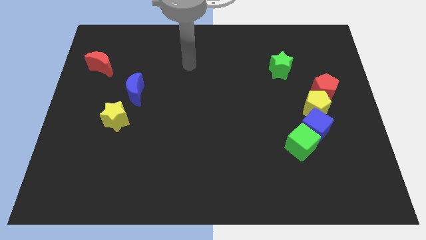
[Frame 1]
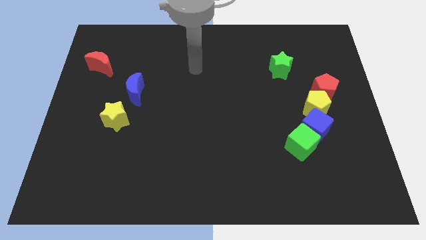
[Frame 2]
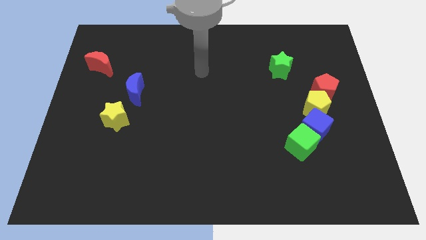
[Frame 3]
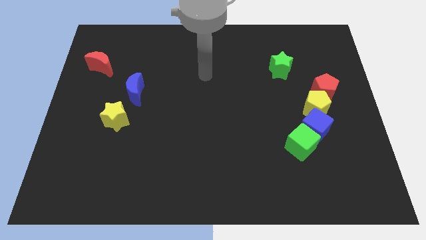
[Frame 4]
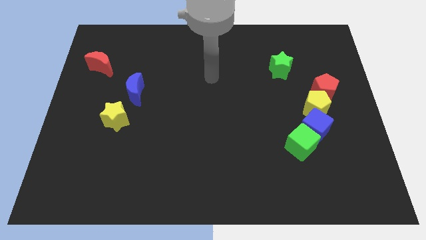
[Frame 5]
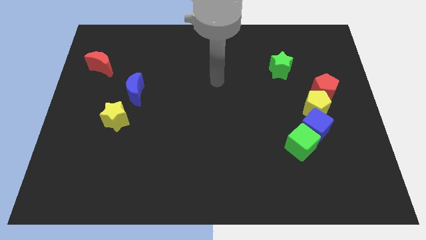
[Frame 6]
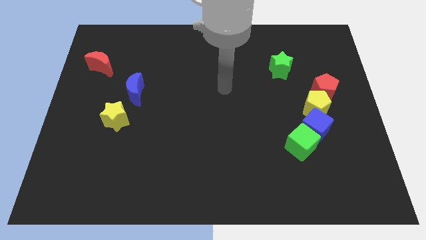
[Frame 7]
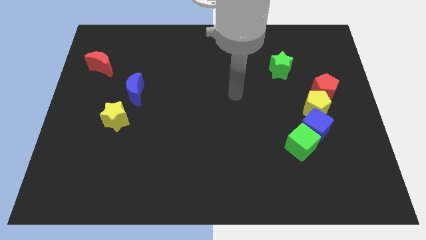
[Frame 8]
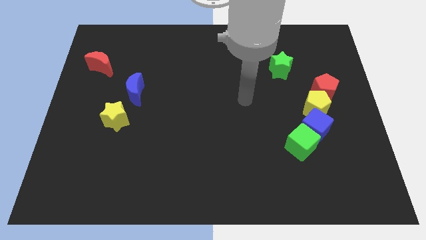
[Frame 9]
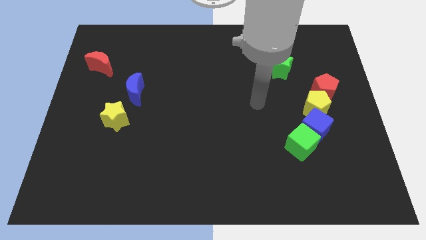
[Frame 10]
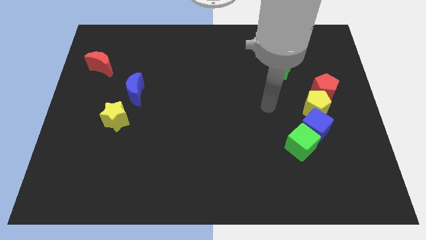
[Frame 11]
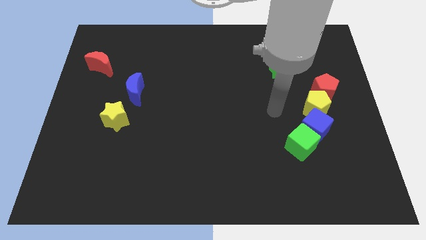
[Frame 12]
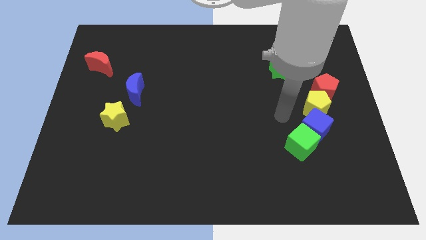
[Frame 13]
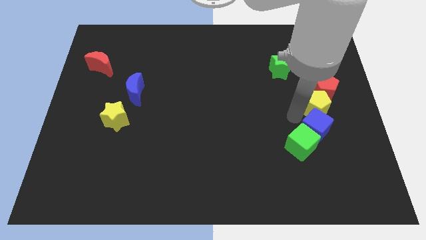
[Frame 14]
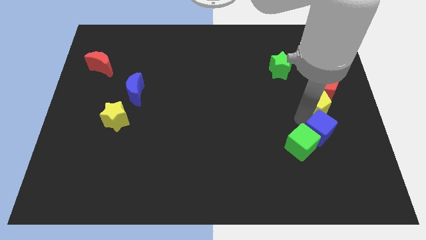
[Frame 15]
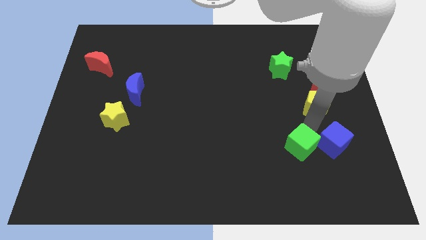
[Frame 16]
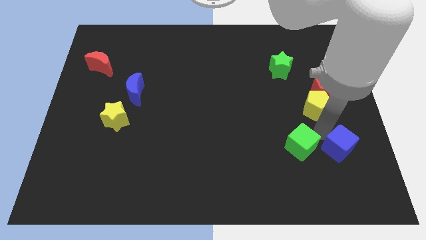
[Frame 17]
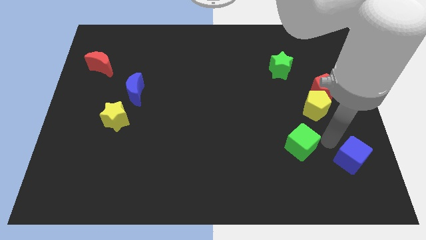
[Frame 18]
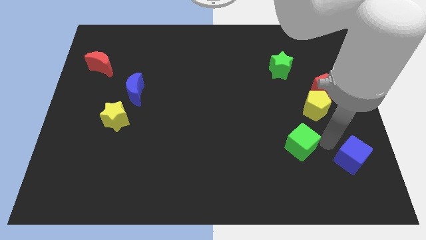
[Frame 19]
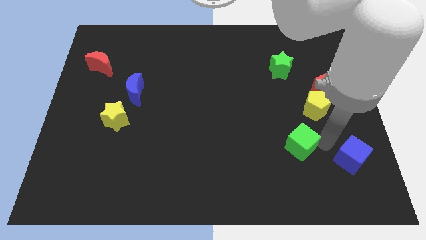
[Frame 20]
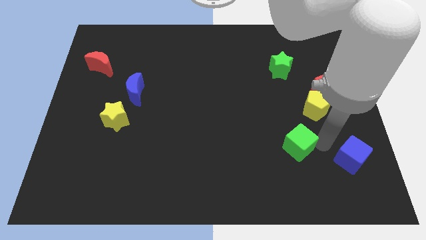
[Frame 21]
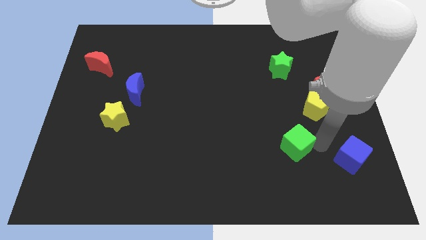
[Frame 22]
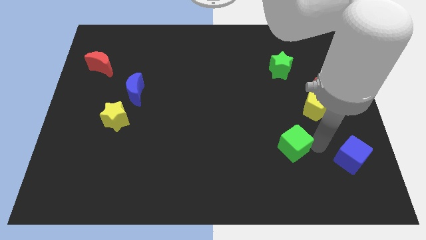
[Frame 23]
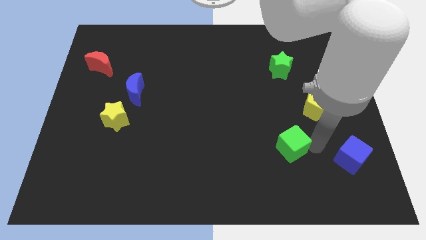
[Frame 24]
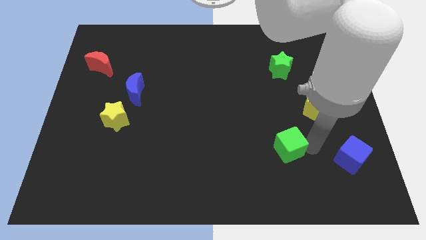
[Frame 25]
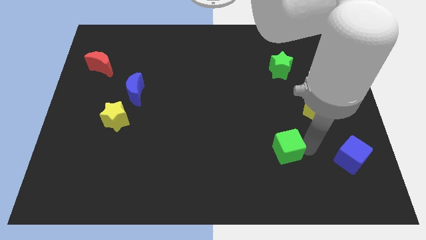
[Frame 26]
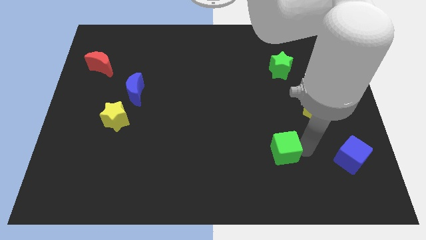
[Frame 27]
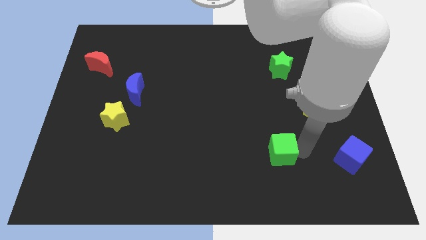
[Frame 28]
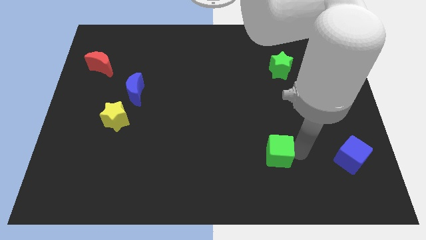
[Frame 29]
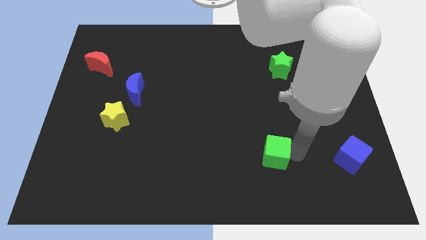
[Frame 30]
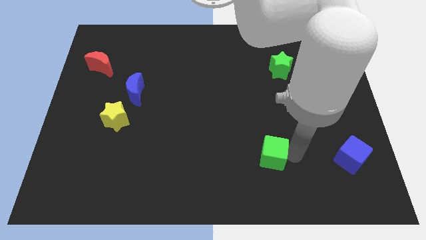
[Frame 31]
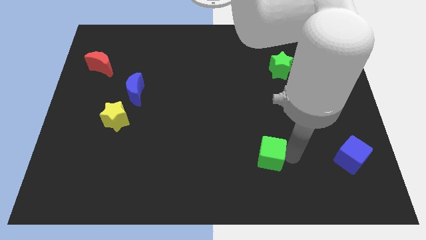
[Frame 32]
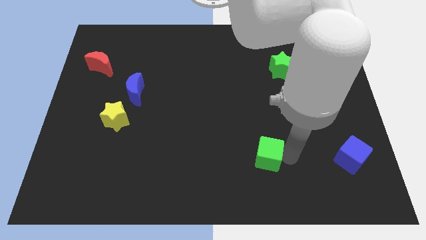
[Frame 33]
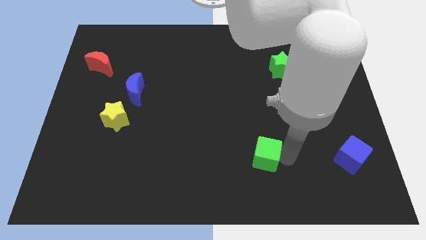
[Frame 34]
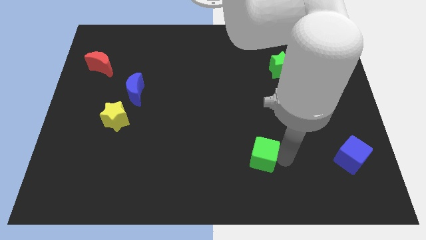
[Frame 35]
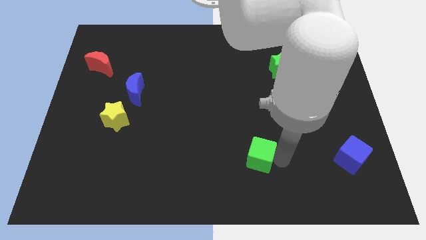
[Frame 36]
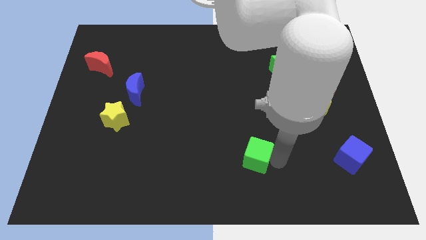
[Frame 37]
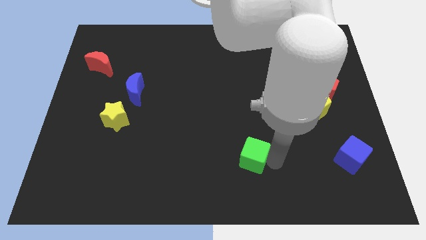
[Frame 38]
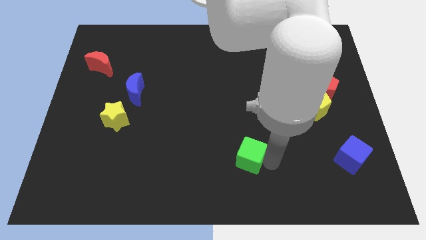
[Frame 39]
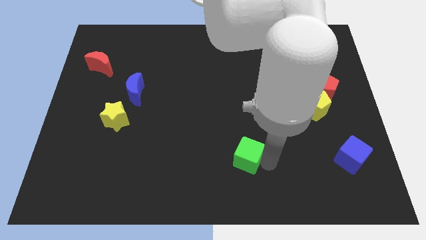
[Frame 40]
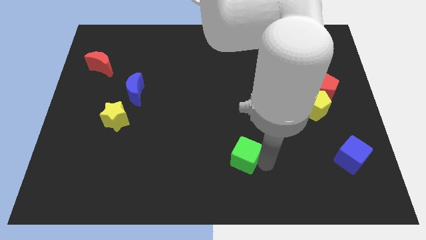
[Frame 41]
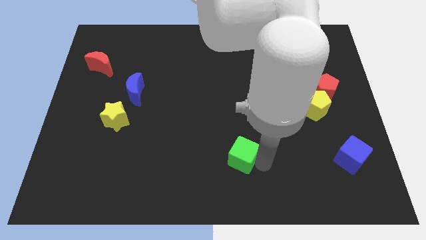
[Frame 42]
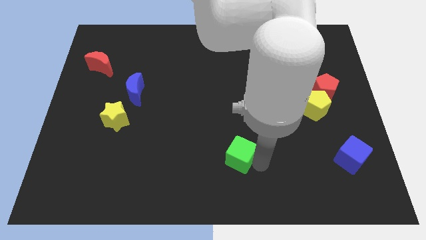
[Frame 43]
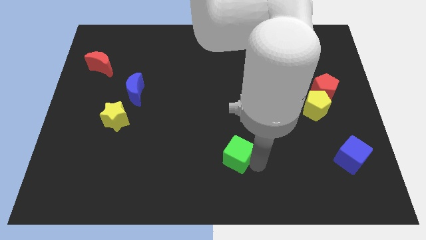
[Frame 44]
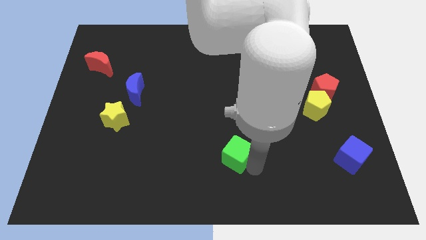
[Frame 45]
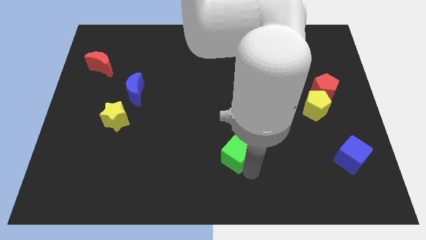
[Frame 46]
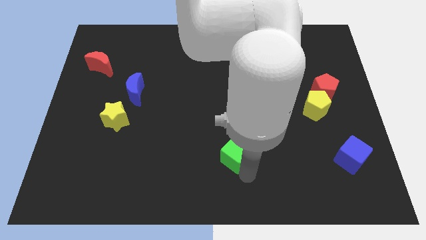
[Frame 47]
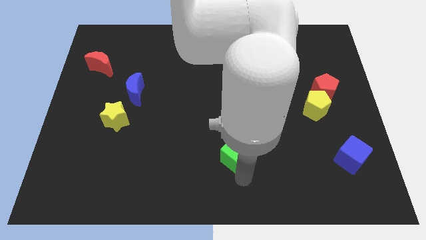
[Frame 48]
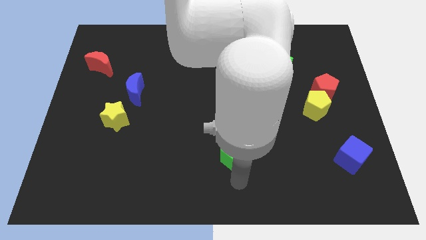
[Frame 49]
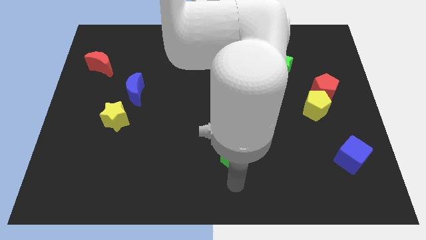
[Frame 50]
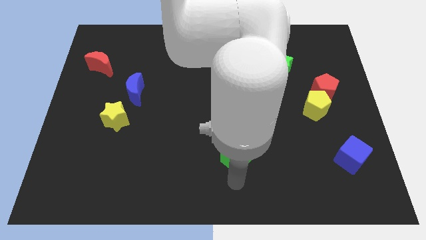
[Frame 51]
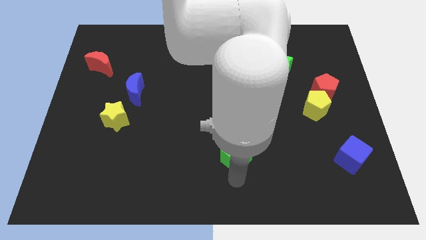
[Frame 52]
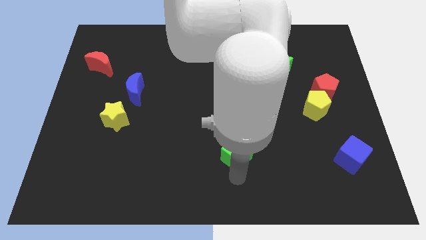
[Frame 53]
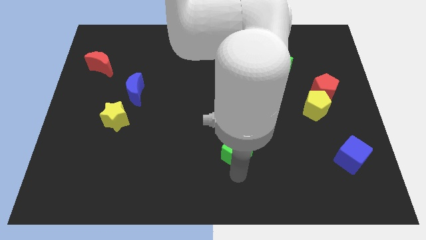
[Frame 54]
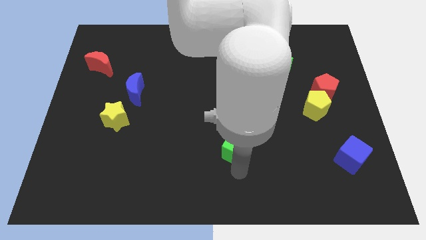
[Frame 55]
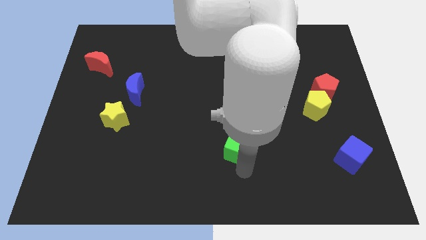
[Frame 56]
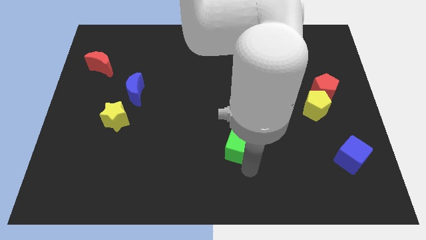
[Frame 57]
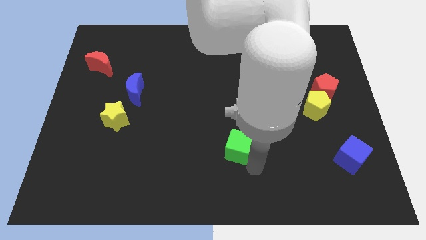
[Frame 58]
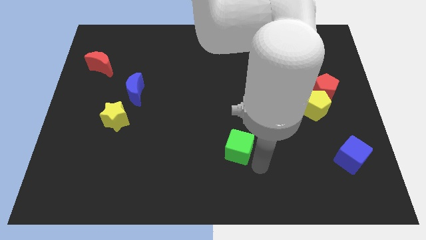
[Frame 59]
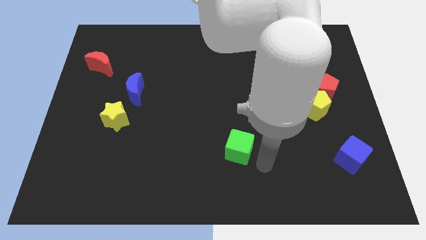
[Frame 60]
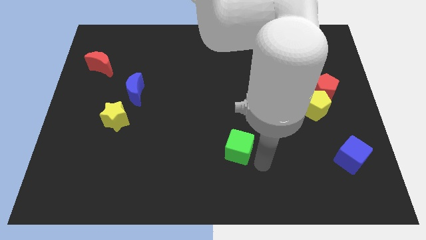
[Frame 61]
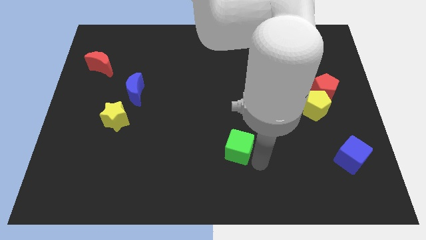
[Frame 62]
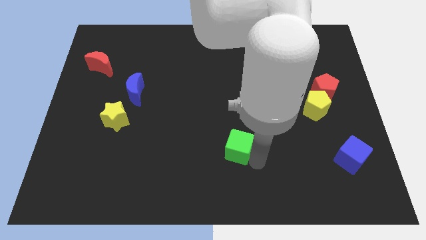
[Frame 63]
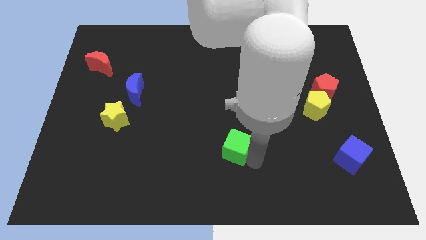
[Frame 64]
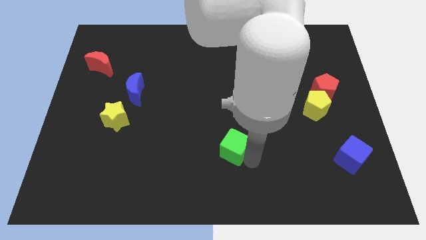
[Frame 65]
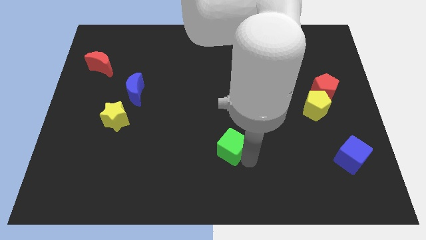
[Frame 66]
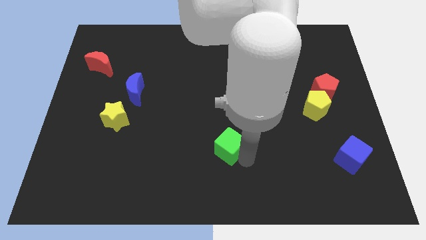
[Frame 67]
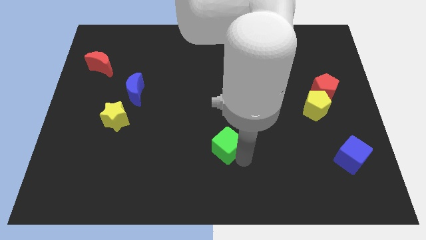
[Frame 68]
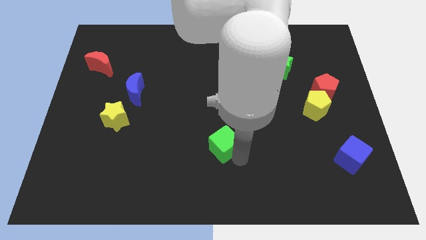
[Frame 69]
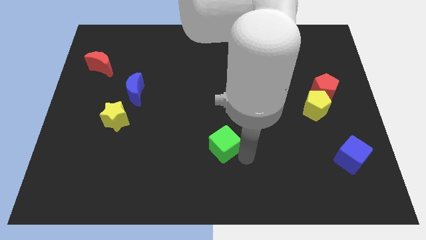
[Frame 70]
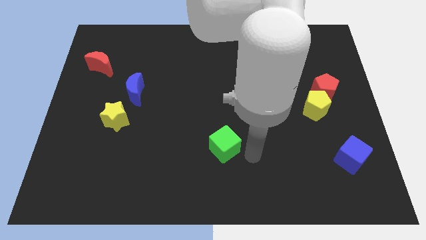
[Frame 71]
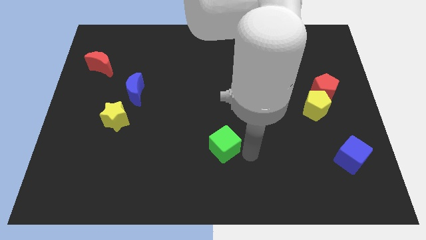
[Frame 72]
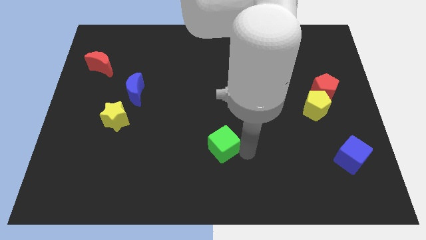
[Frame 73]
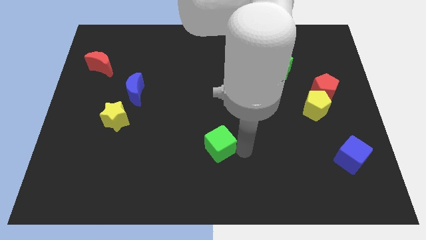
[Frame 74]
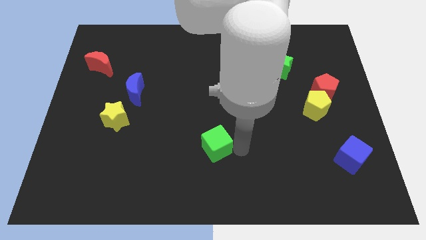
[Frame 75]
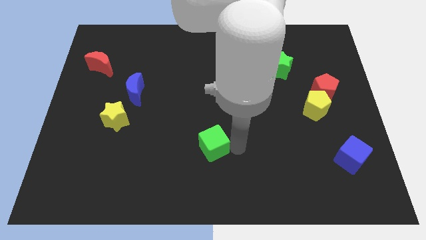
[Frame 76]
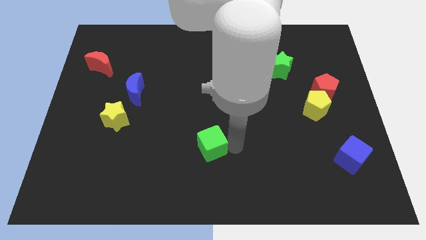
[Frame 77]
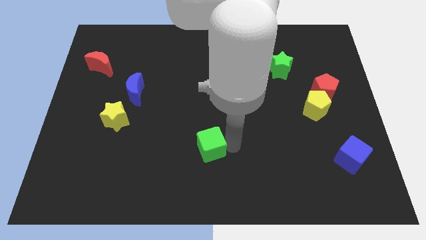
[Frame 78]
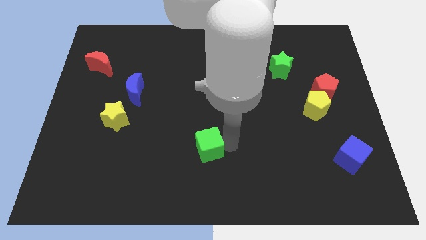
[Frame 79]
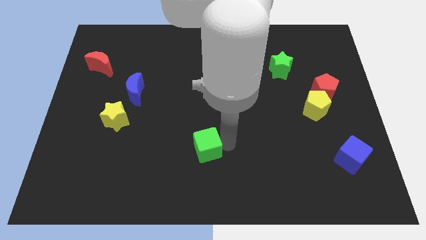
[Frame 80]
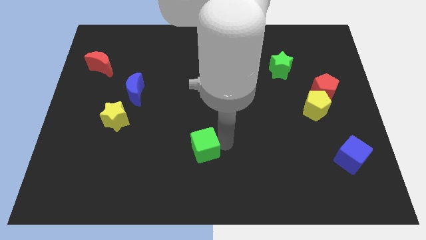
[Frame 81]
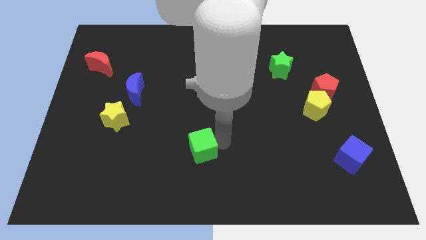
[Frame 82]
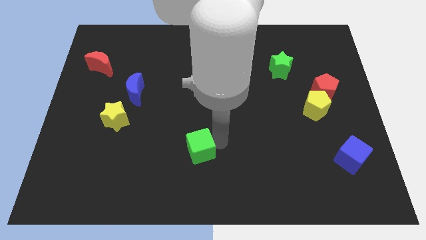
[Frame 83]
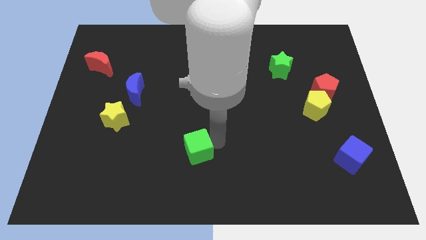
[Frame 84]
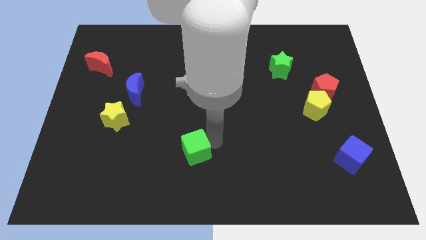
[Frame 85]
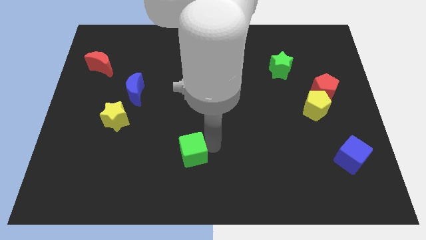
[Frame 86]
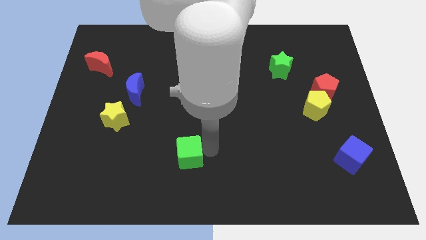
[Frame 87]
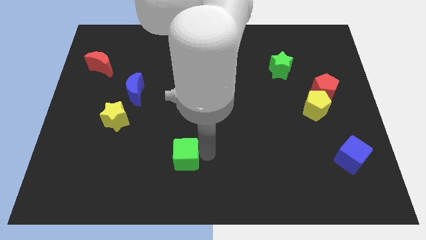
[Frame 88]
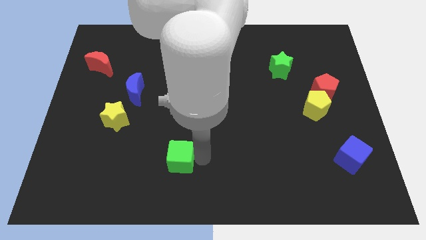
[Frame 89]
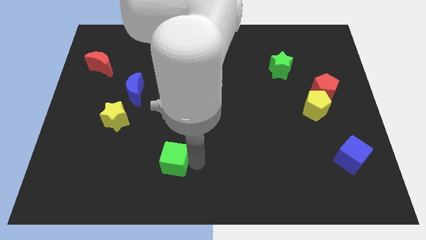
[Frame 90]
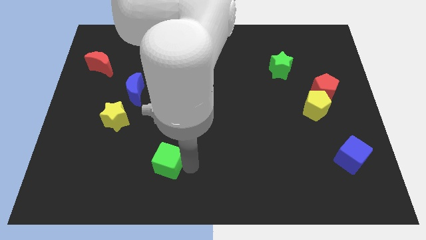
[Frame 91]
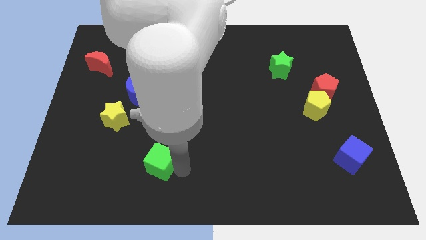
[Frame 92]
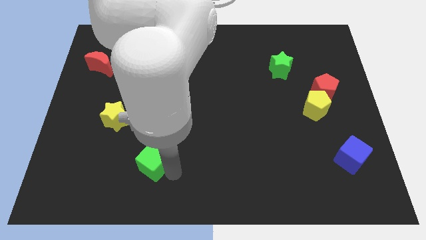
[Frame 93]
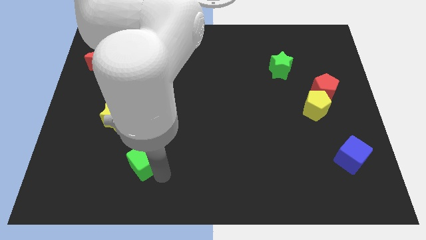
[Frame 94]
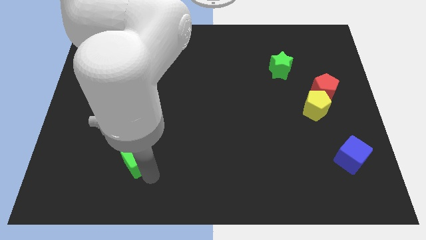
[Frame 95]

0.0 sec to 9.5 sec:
push the green cube to the bottom right side of the yellow star
